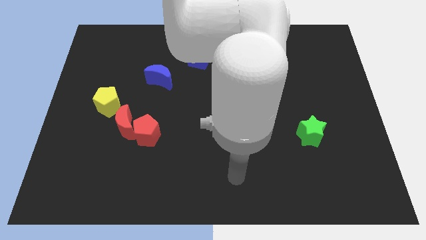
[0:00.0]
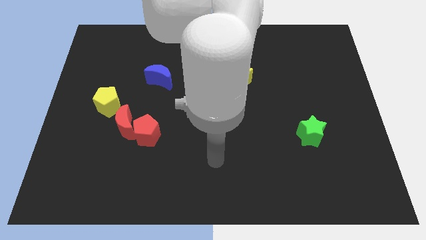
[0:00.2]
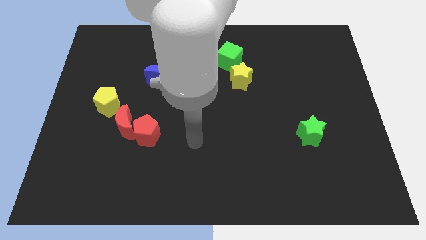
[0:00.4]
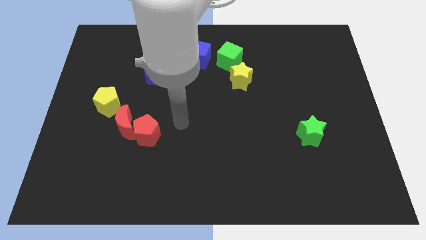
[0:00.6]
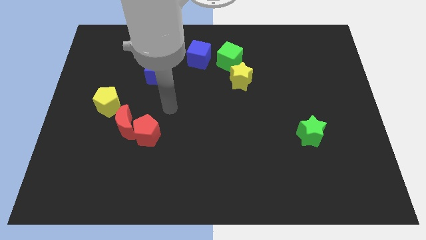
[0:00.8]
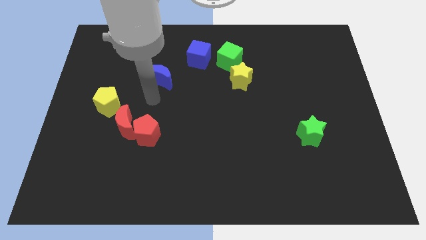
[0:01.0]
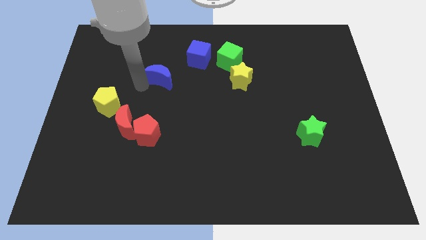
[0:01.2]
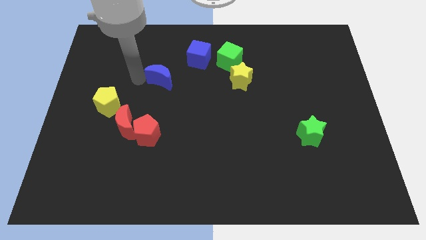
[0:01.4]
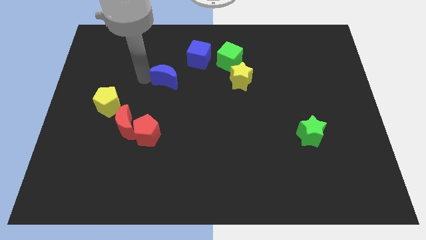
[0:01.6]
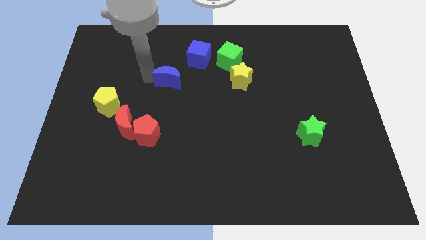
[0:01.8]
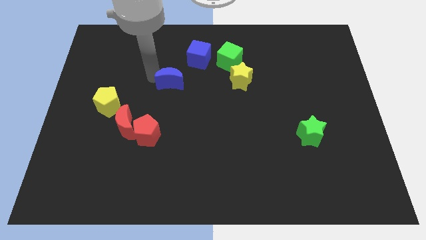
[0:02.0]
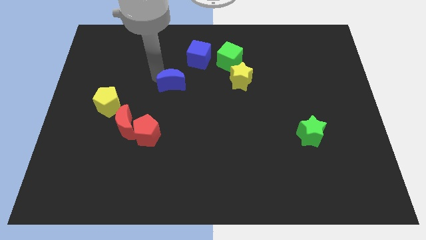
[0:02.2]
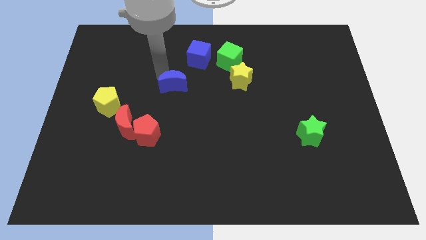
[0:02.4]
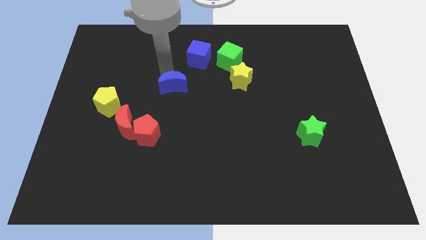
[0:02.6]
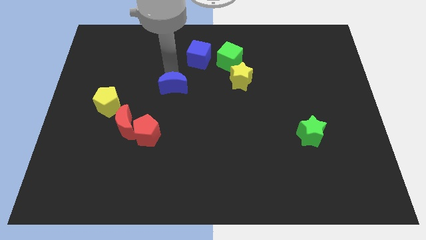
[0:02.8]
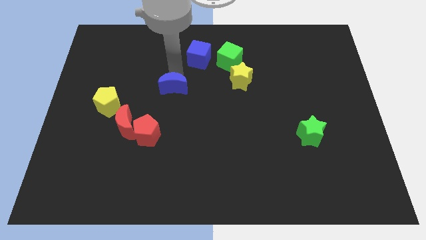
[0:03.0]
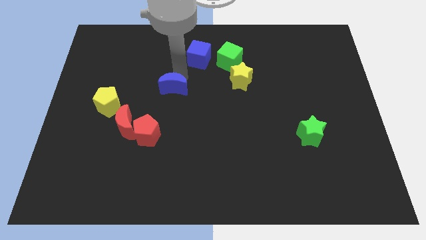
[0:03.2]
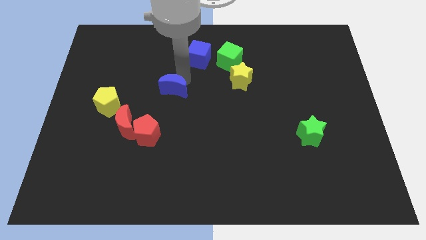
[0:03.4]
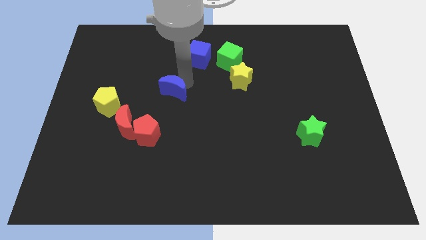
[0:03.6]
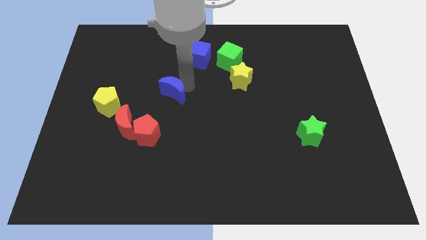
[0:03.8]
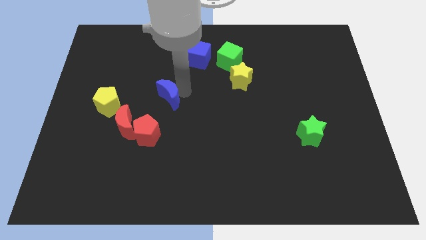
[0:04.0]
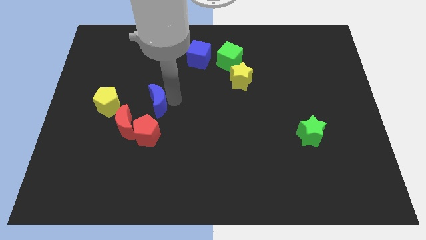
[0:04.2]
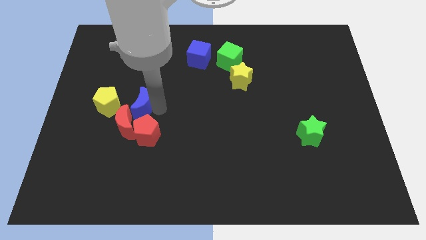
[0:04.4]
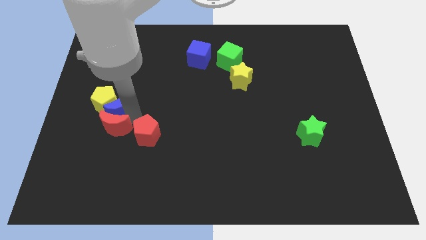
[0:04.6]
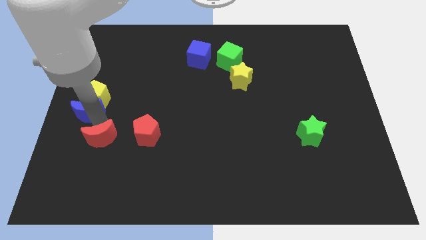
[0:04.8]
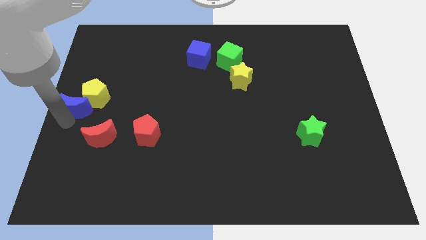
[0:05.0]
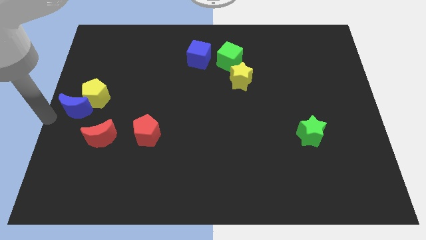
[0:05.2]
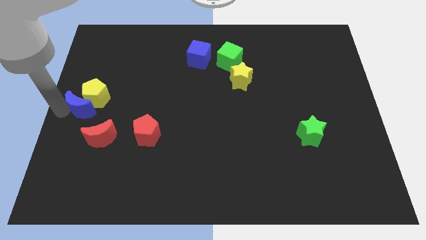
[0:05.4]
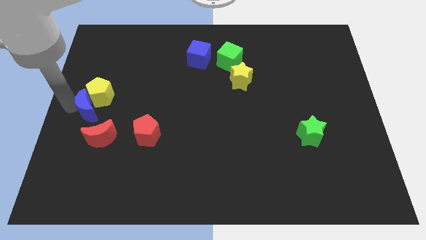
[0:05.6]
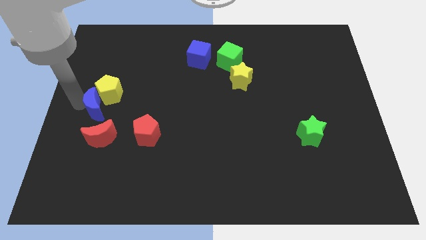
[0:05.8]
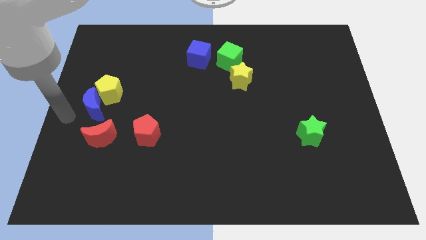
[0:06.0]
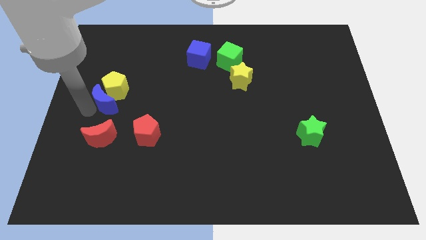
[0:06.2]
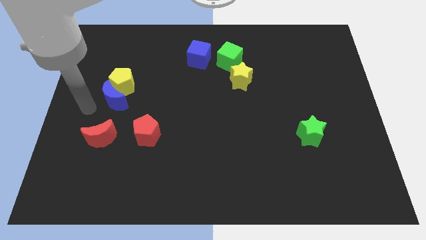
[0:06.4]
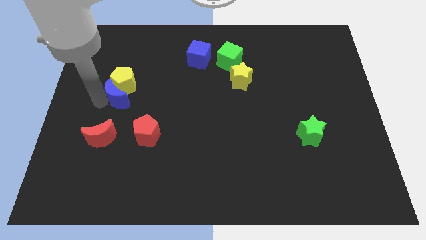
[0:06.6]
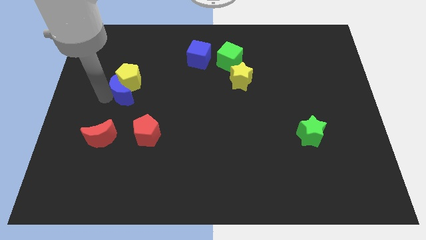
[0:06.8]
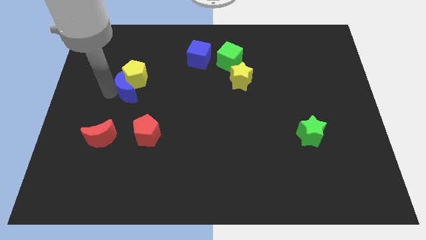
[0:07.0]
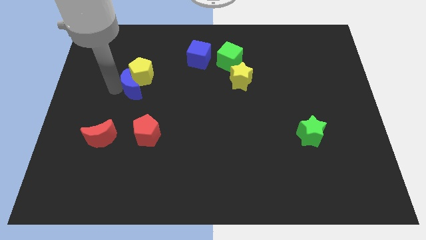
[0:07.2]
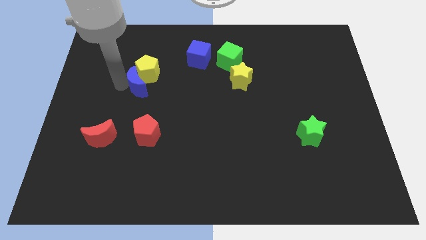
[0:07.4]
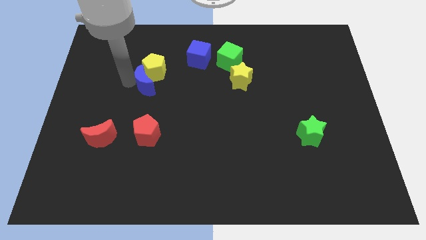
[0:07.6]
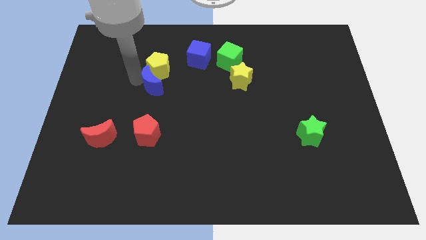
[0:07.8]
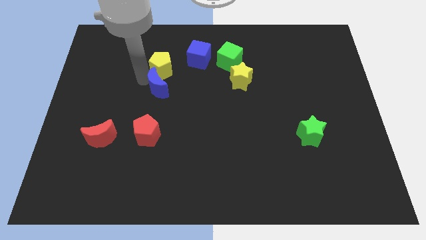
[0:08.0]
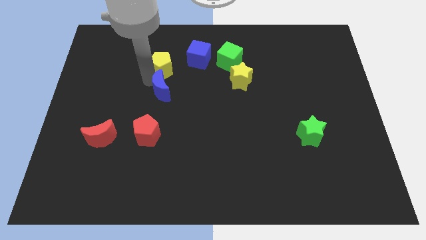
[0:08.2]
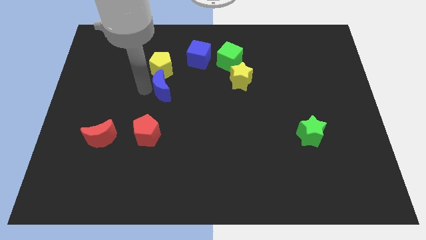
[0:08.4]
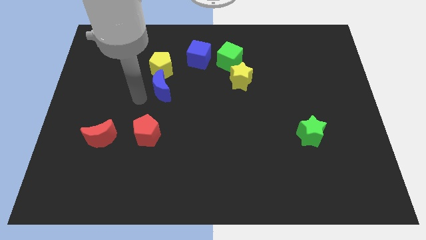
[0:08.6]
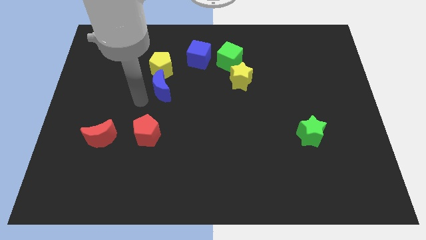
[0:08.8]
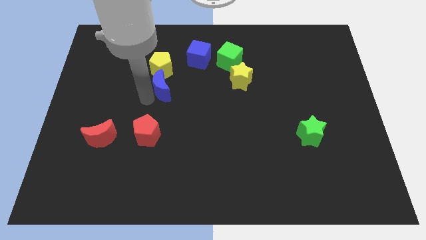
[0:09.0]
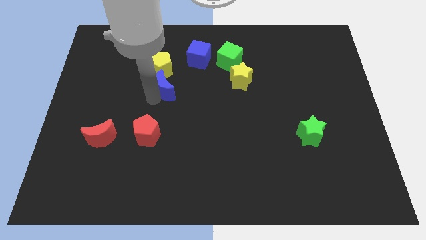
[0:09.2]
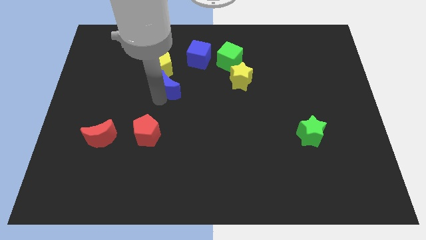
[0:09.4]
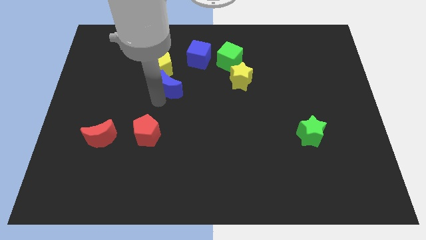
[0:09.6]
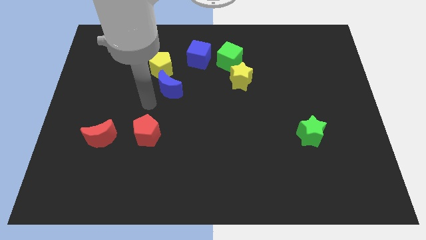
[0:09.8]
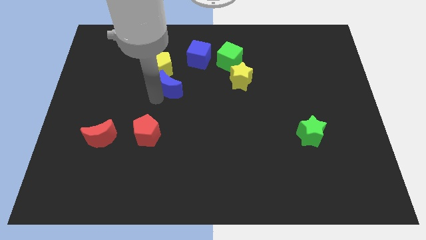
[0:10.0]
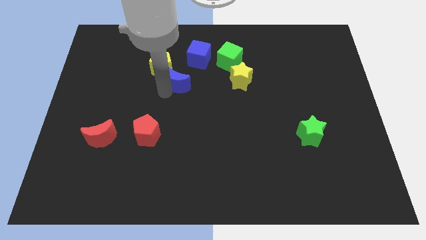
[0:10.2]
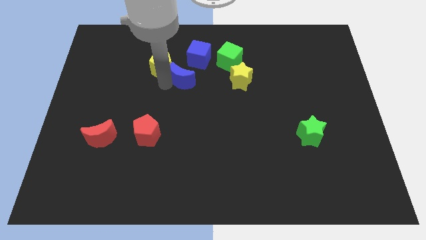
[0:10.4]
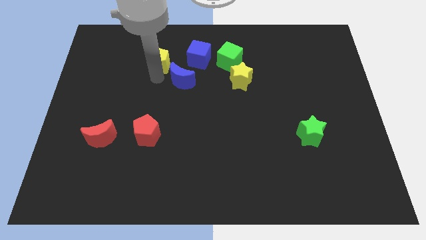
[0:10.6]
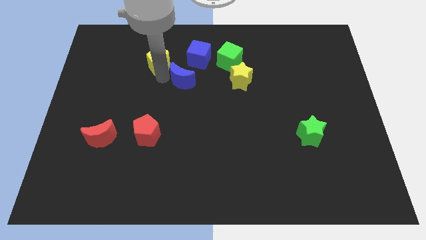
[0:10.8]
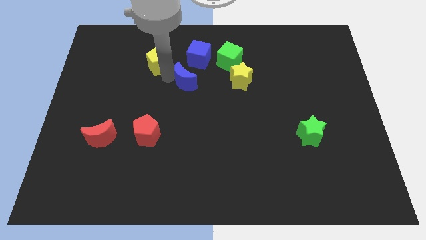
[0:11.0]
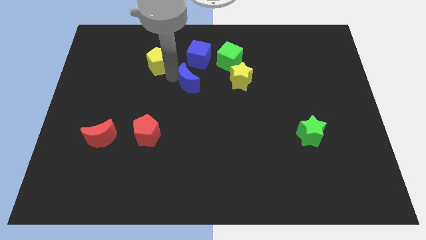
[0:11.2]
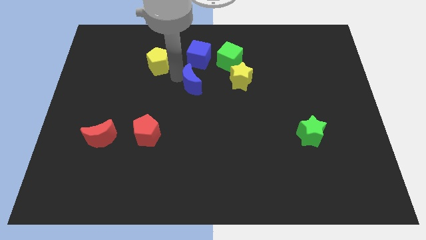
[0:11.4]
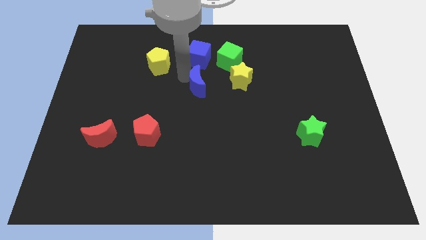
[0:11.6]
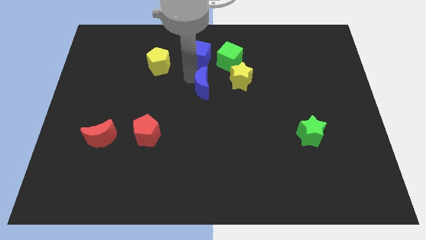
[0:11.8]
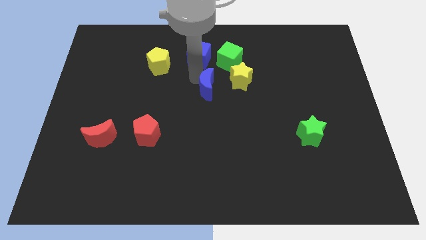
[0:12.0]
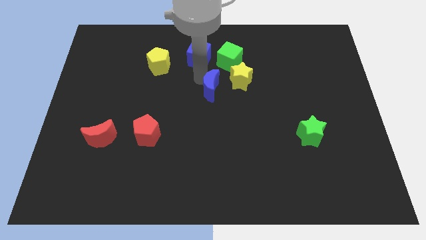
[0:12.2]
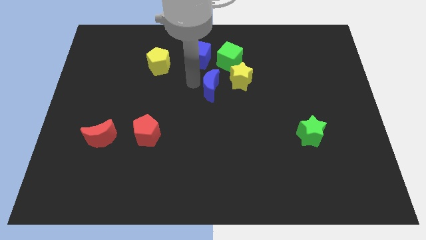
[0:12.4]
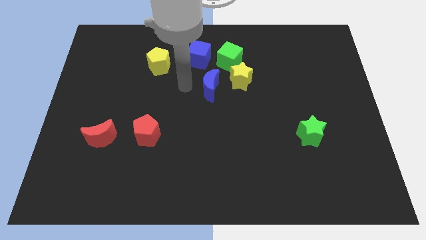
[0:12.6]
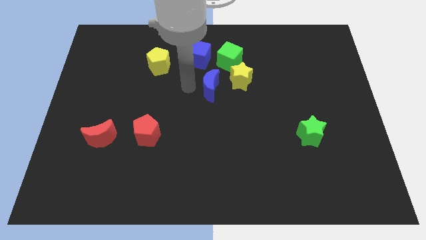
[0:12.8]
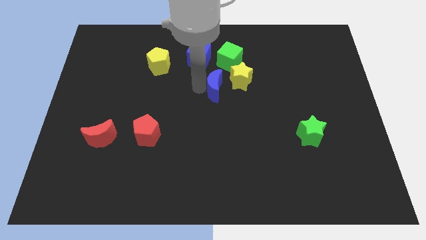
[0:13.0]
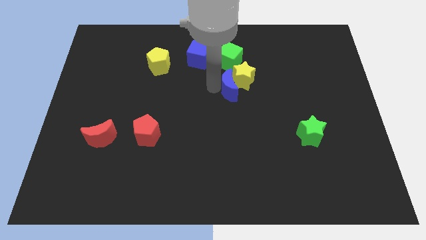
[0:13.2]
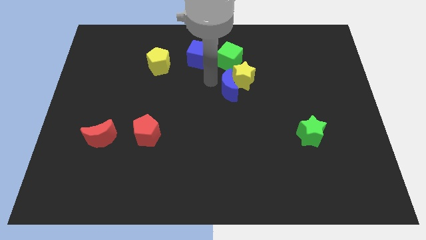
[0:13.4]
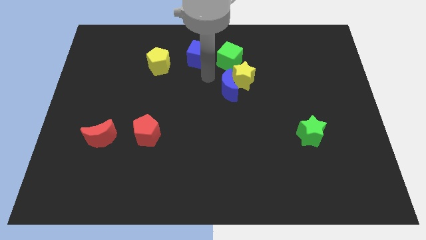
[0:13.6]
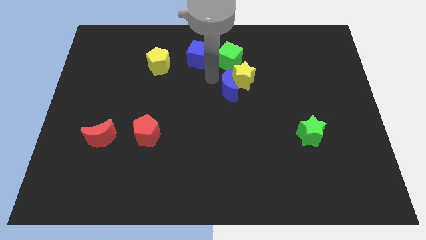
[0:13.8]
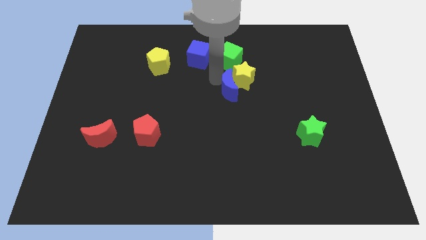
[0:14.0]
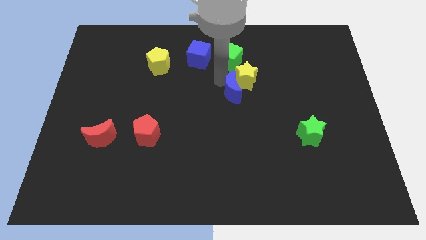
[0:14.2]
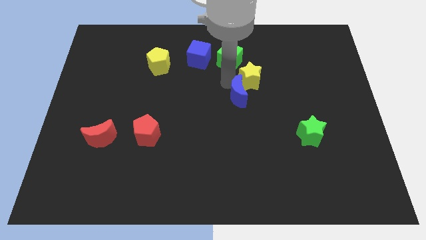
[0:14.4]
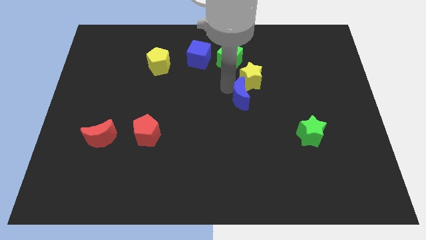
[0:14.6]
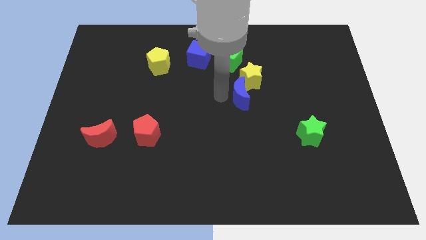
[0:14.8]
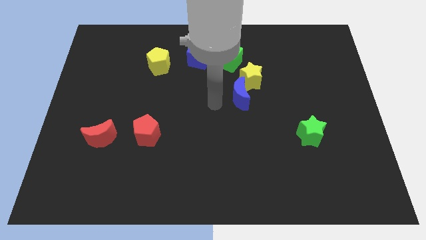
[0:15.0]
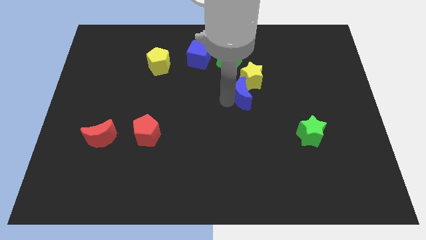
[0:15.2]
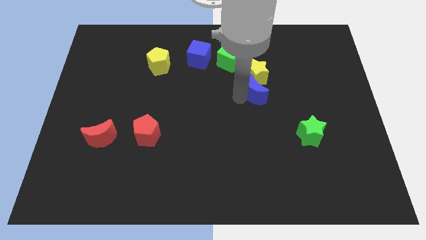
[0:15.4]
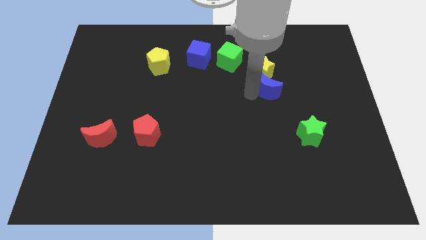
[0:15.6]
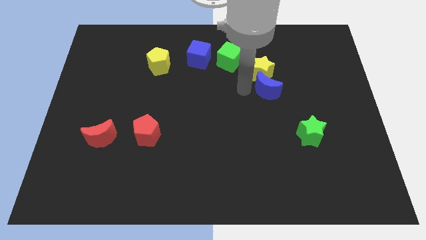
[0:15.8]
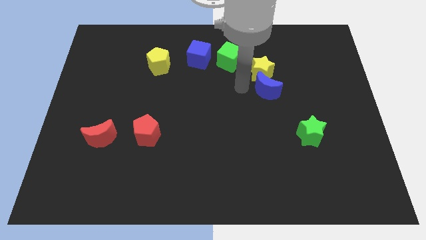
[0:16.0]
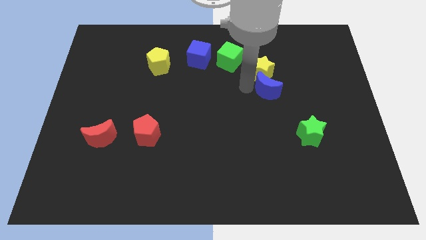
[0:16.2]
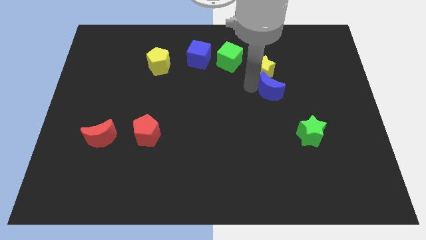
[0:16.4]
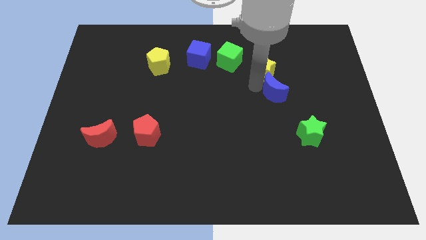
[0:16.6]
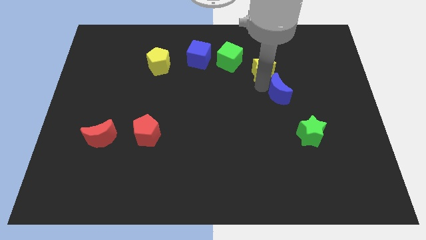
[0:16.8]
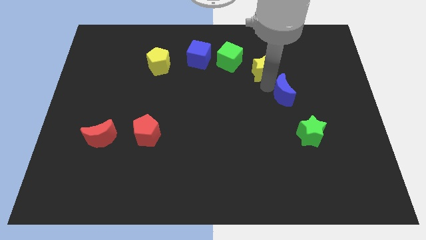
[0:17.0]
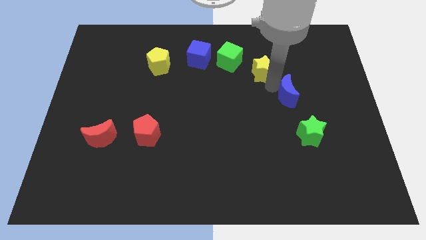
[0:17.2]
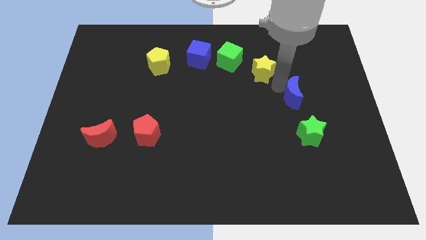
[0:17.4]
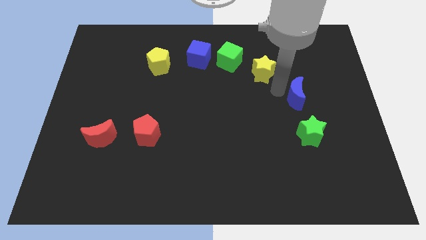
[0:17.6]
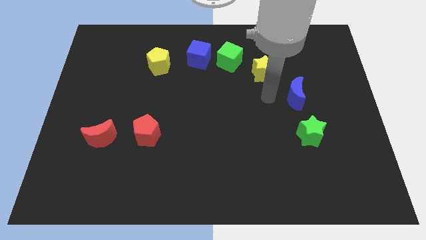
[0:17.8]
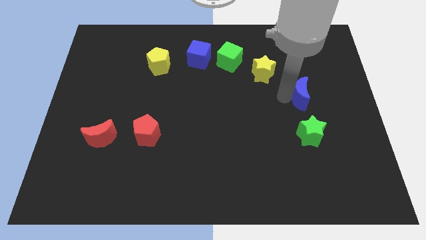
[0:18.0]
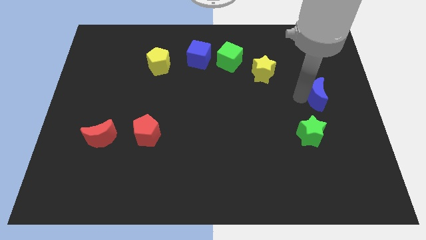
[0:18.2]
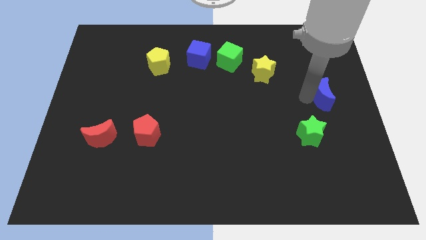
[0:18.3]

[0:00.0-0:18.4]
slide the blue moon to the right side
